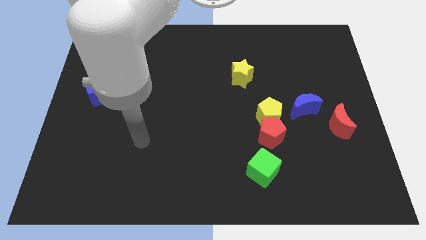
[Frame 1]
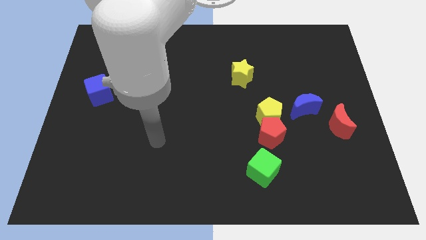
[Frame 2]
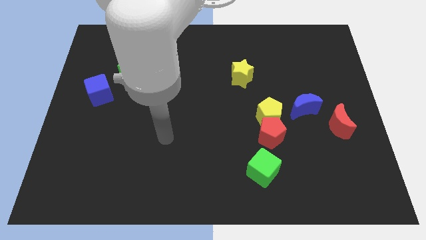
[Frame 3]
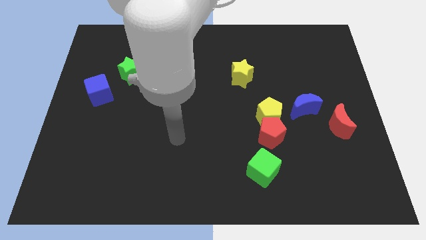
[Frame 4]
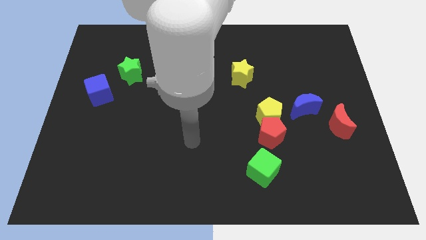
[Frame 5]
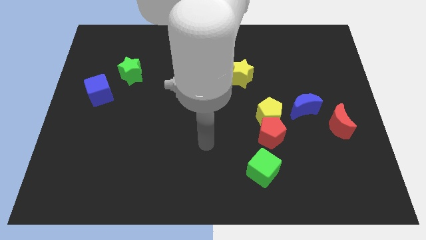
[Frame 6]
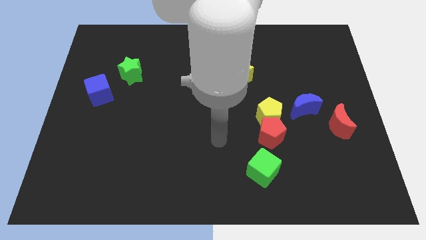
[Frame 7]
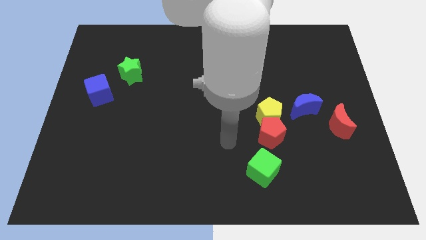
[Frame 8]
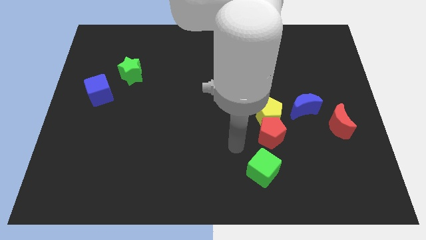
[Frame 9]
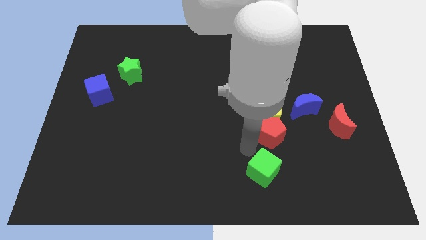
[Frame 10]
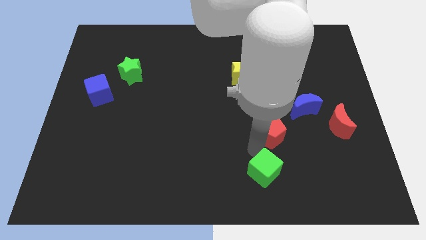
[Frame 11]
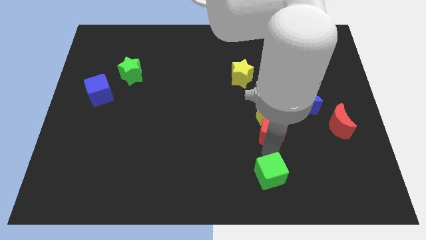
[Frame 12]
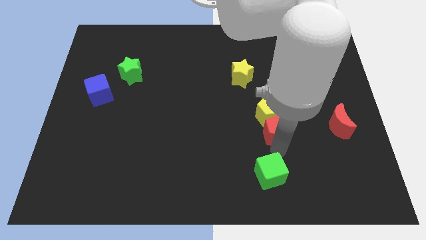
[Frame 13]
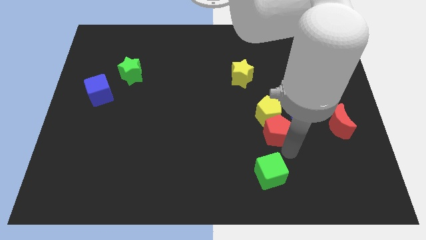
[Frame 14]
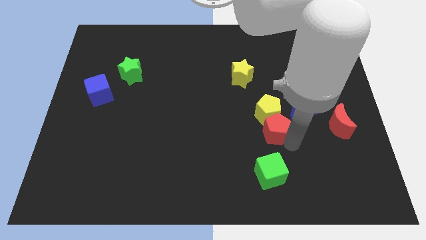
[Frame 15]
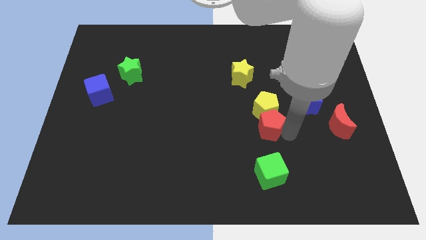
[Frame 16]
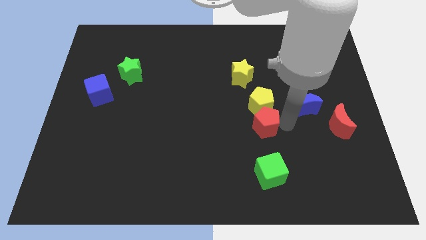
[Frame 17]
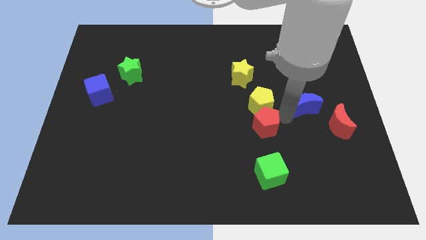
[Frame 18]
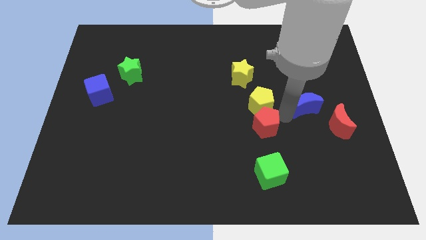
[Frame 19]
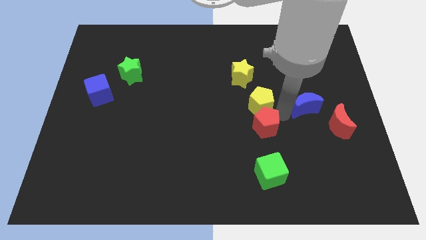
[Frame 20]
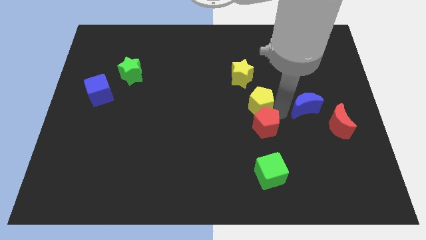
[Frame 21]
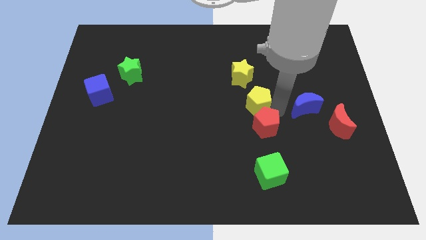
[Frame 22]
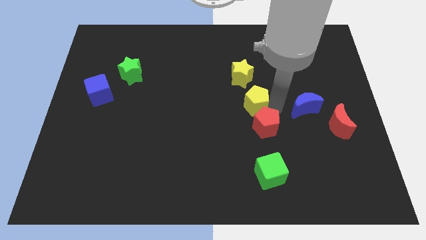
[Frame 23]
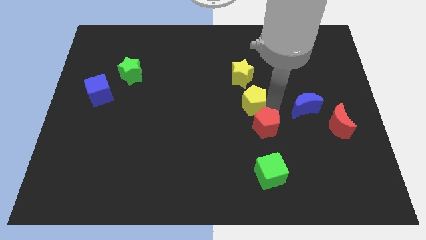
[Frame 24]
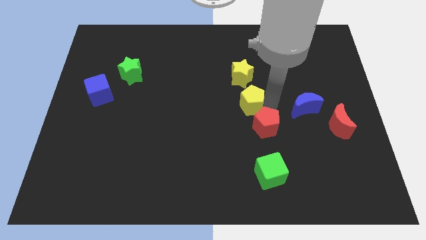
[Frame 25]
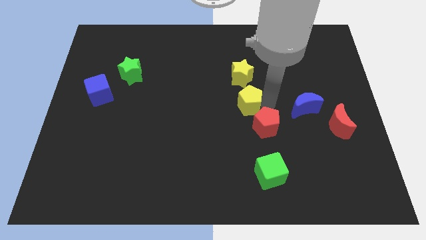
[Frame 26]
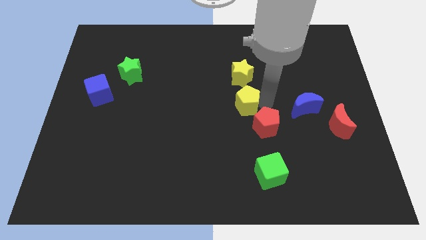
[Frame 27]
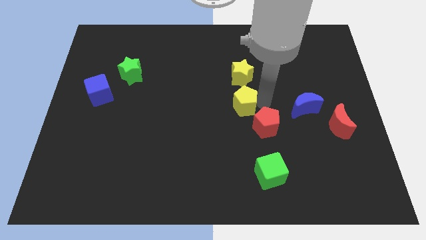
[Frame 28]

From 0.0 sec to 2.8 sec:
pull the yellow pentagon apart from the red pentagon and blue moon

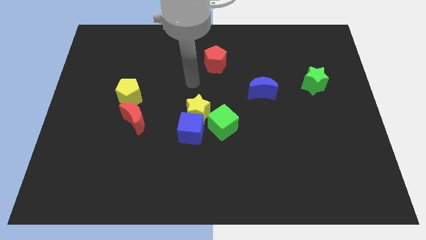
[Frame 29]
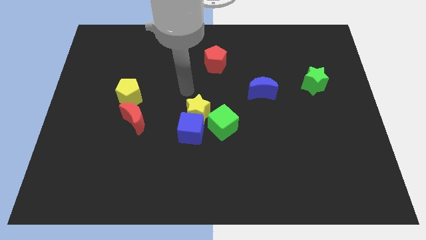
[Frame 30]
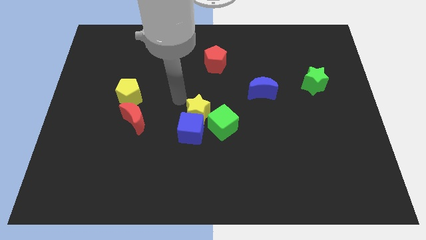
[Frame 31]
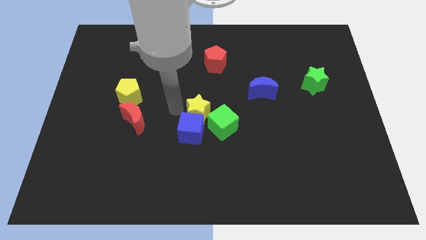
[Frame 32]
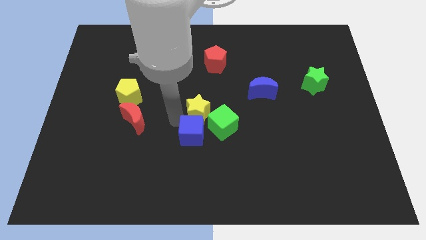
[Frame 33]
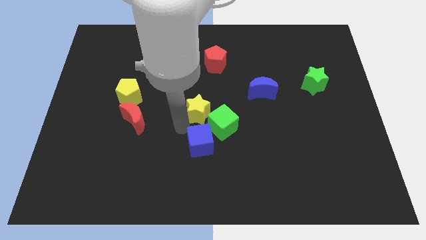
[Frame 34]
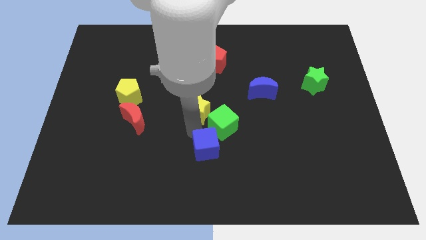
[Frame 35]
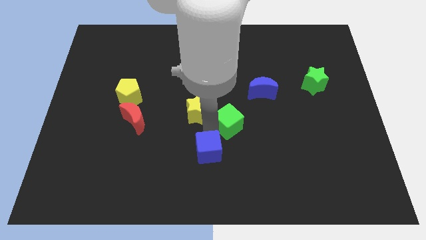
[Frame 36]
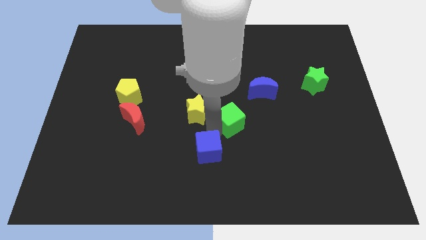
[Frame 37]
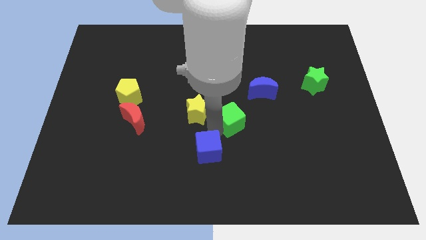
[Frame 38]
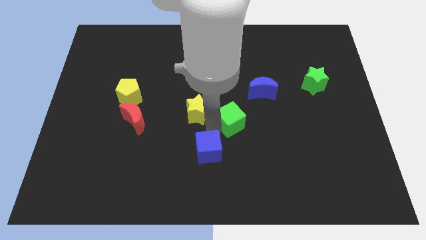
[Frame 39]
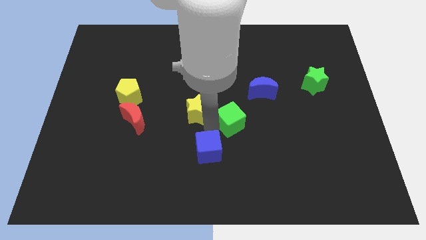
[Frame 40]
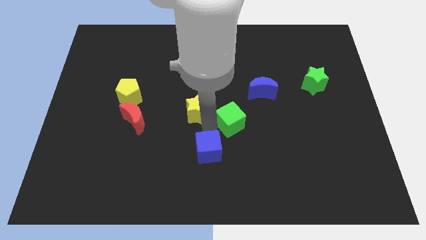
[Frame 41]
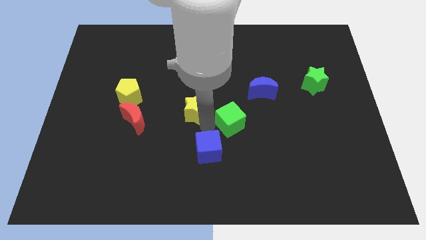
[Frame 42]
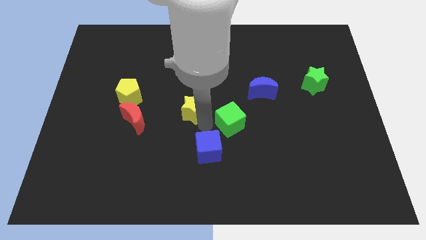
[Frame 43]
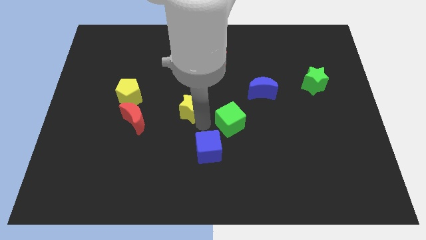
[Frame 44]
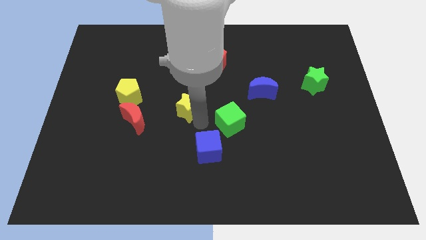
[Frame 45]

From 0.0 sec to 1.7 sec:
pull the yellow star apart from the blue cube and green cube

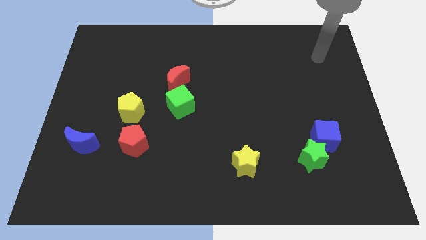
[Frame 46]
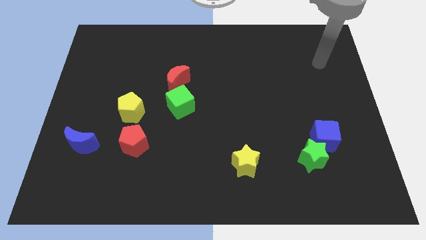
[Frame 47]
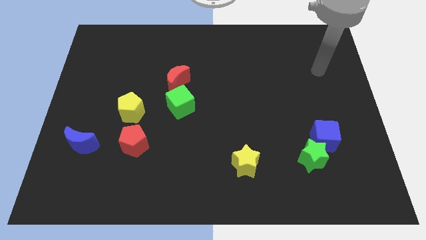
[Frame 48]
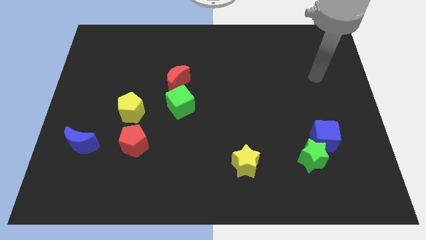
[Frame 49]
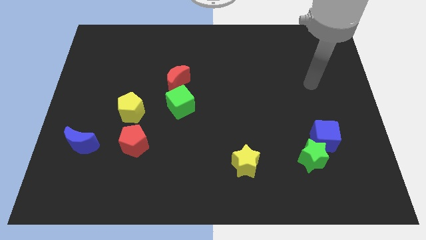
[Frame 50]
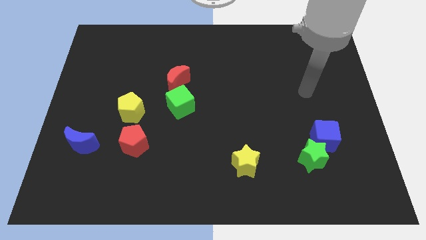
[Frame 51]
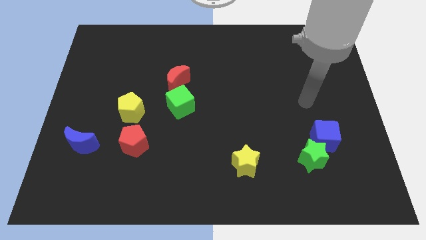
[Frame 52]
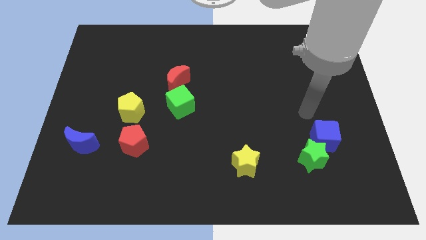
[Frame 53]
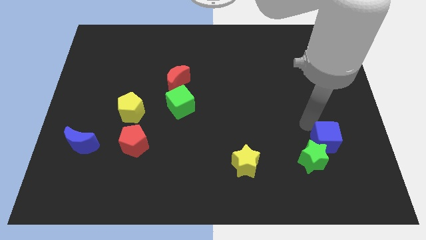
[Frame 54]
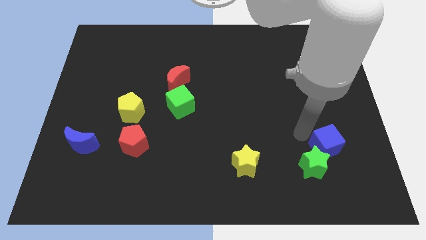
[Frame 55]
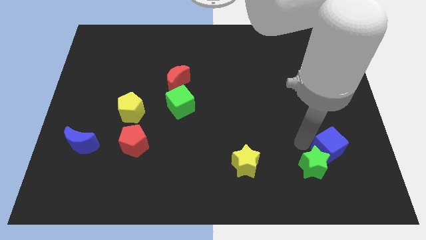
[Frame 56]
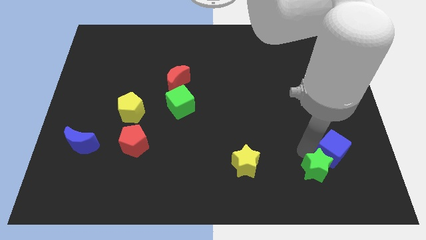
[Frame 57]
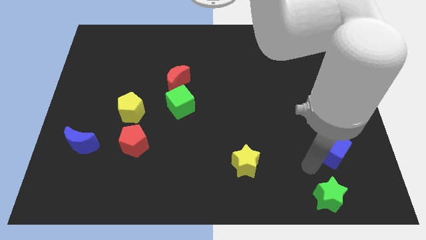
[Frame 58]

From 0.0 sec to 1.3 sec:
move the blue cube away from the green star

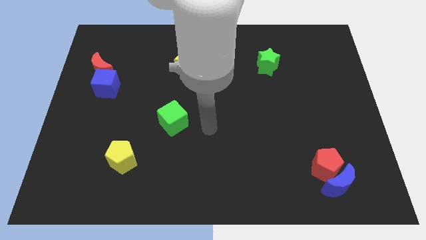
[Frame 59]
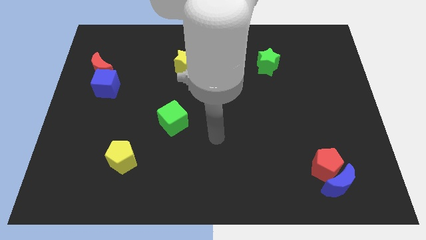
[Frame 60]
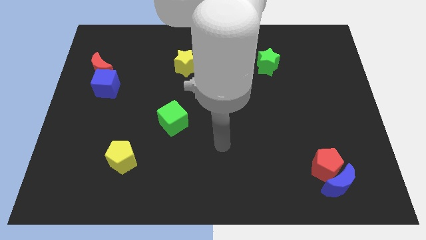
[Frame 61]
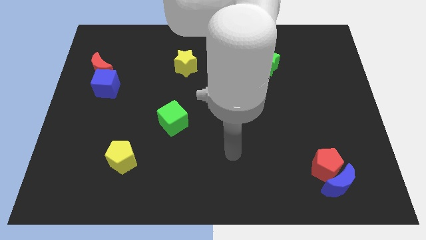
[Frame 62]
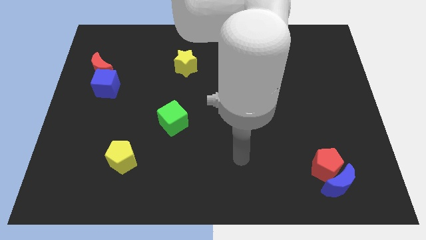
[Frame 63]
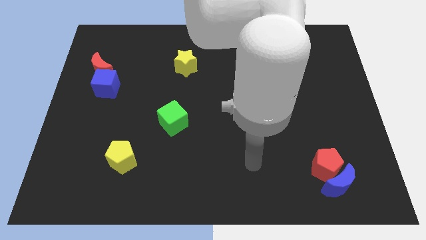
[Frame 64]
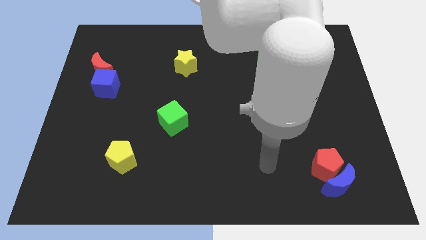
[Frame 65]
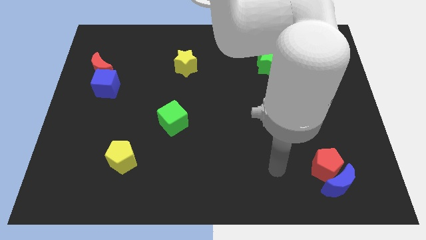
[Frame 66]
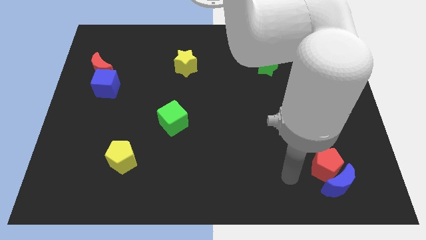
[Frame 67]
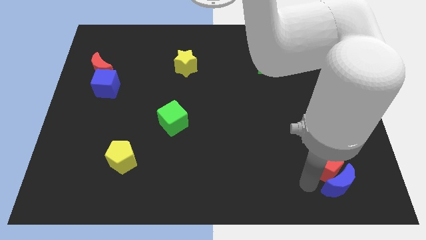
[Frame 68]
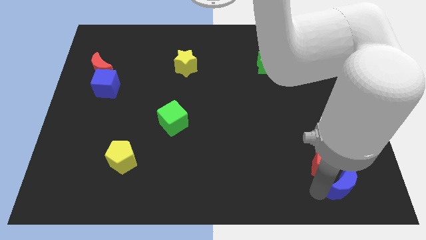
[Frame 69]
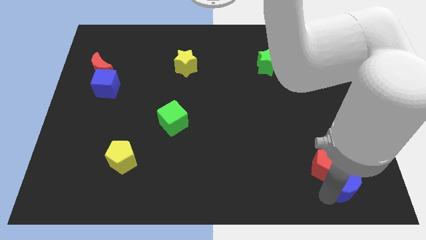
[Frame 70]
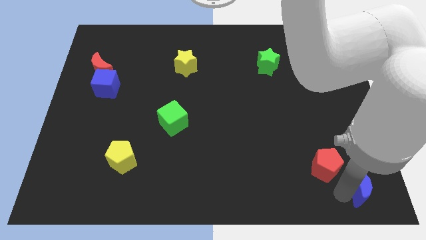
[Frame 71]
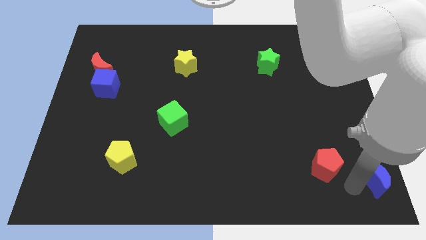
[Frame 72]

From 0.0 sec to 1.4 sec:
pull the red pentagon apart from the blue moon

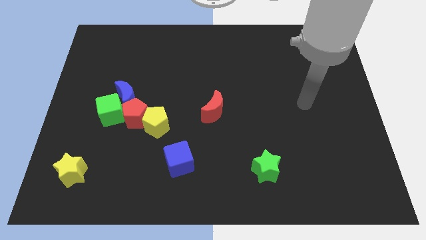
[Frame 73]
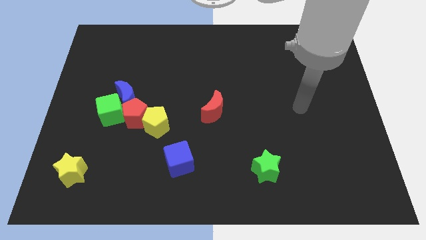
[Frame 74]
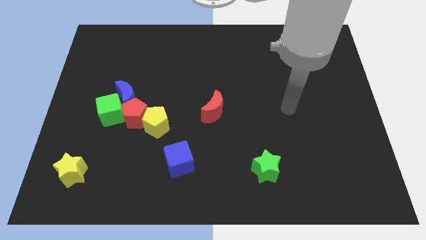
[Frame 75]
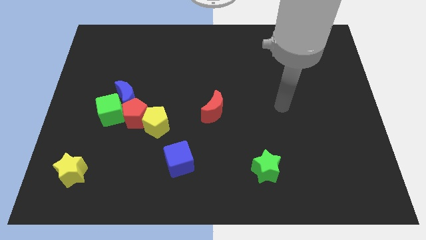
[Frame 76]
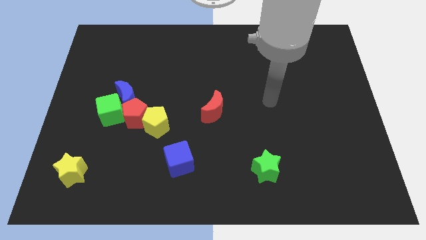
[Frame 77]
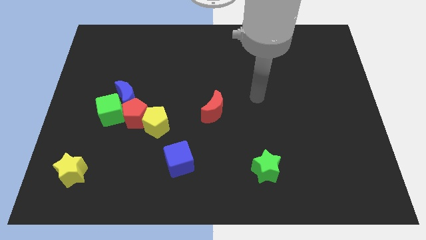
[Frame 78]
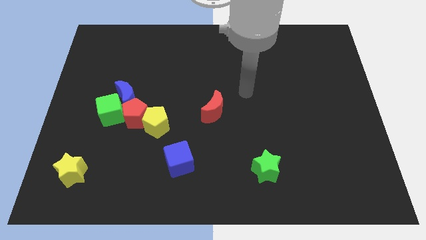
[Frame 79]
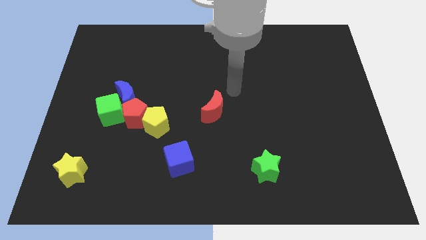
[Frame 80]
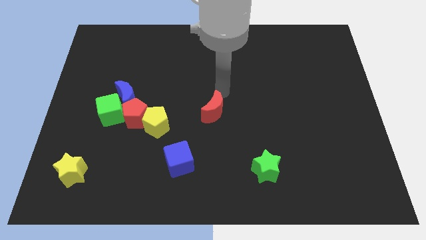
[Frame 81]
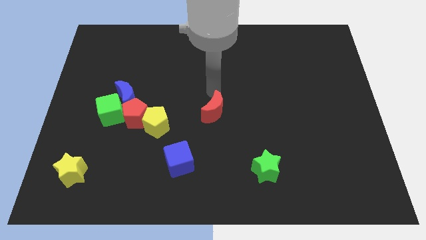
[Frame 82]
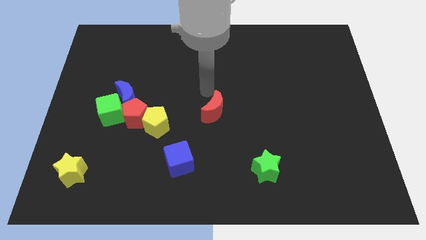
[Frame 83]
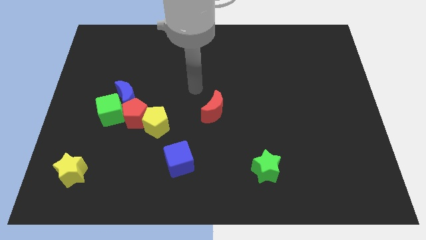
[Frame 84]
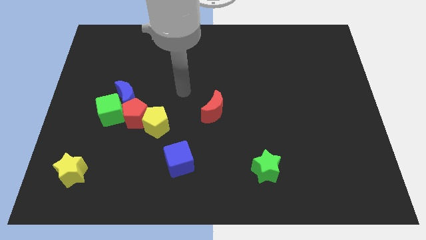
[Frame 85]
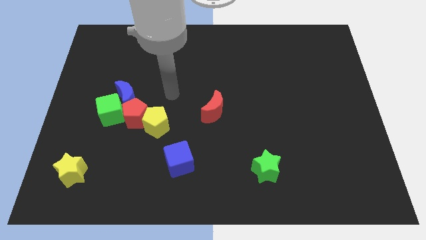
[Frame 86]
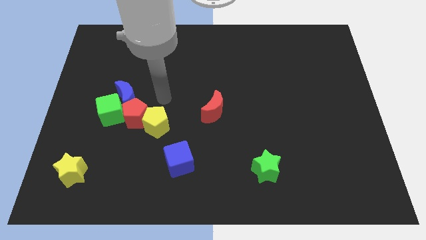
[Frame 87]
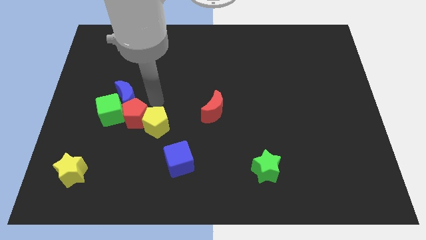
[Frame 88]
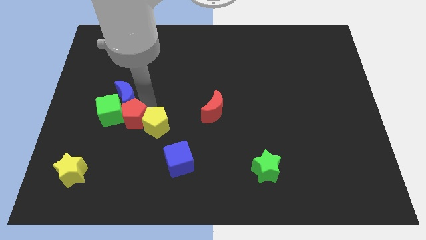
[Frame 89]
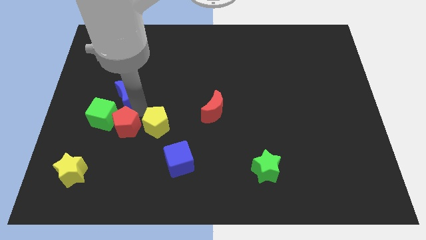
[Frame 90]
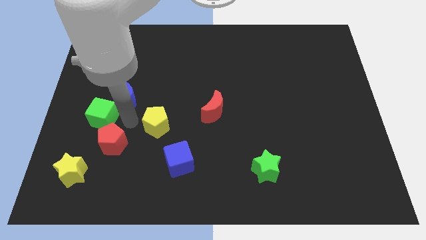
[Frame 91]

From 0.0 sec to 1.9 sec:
move the yellow pentagon away from the red pentagon
